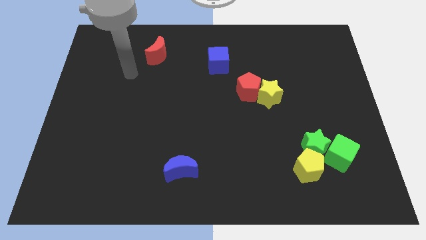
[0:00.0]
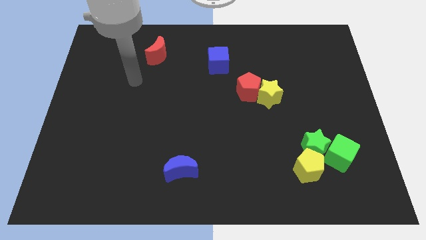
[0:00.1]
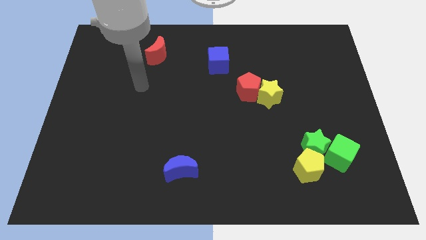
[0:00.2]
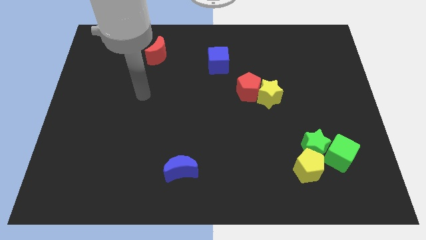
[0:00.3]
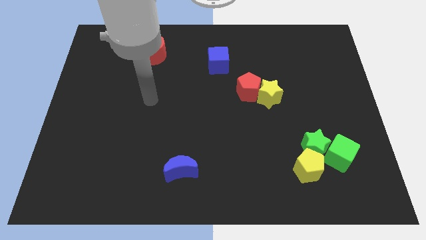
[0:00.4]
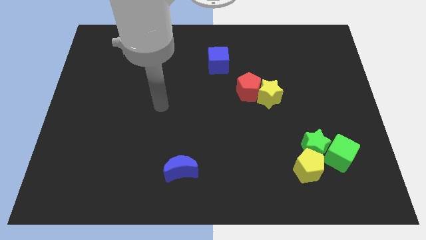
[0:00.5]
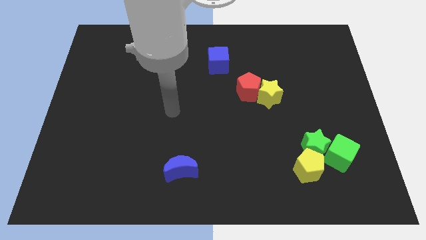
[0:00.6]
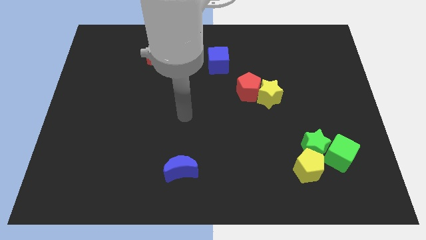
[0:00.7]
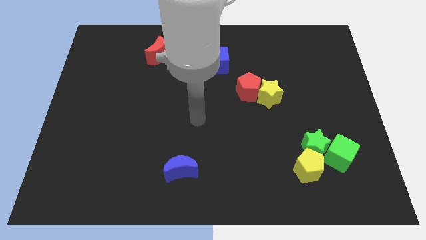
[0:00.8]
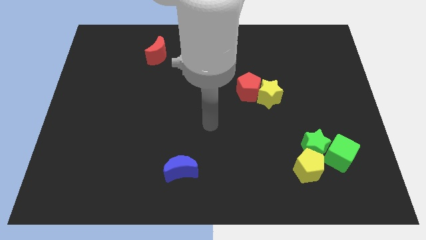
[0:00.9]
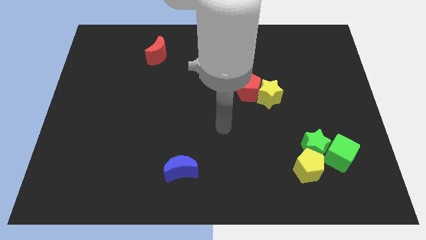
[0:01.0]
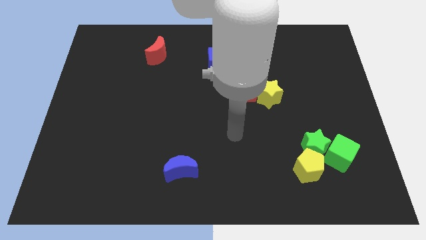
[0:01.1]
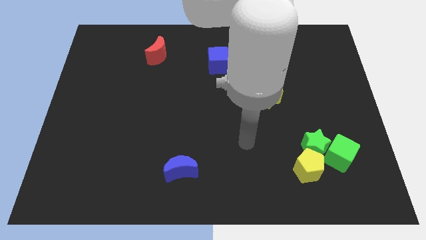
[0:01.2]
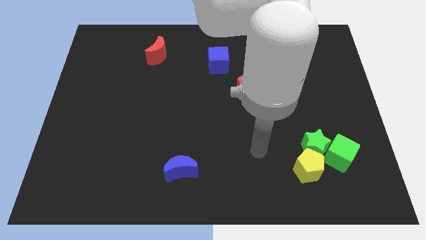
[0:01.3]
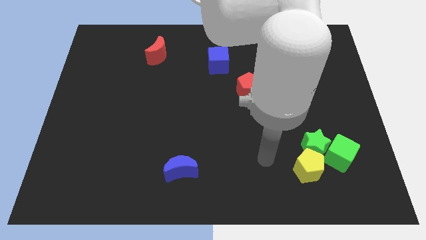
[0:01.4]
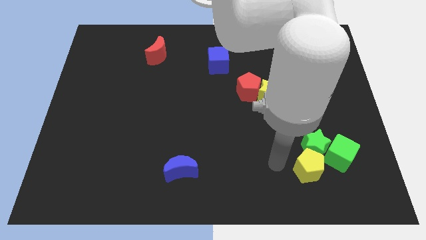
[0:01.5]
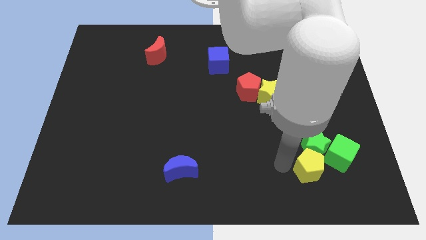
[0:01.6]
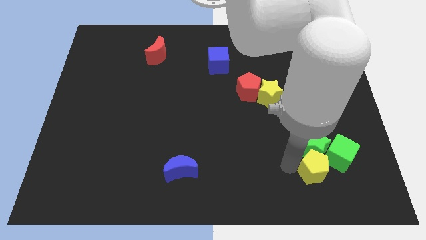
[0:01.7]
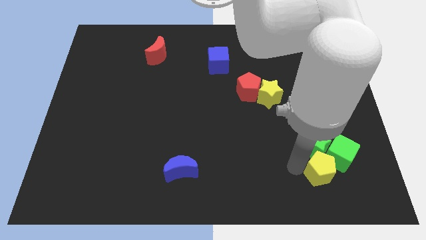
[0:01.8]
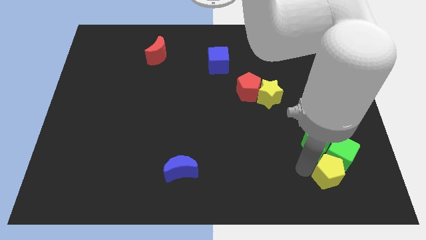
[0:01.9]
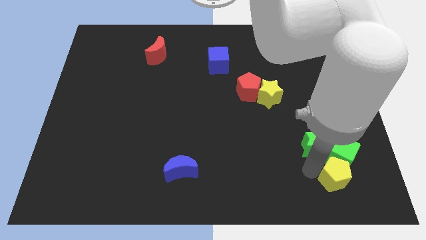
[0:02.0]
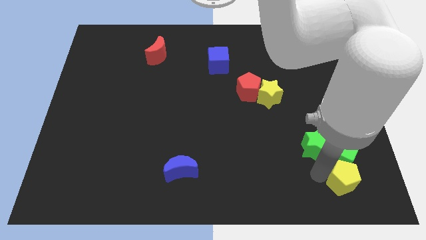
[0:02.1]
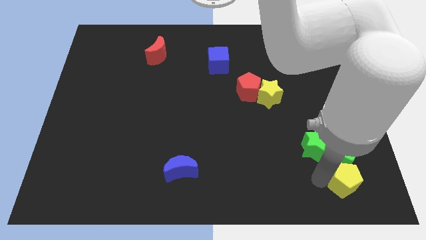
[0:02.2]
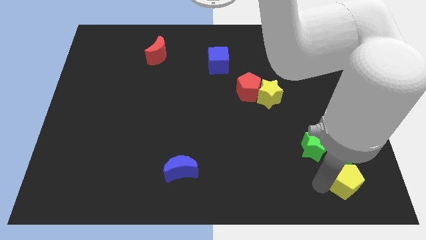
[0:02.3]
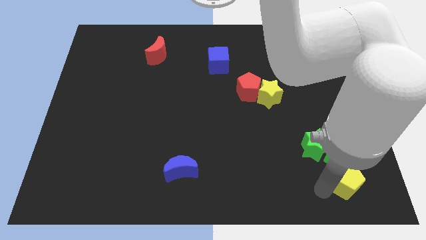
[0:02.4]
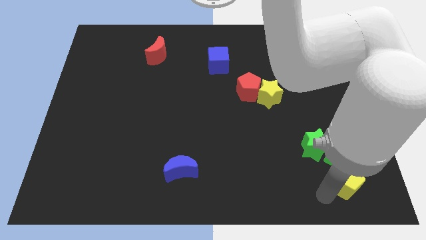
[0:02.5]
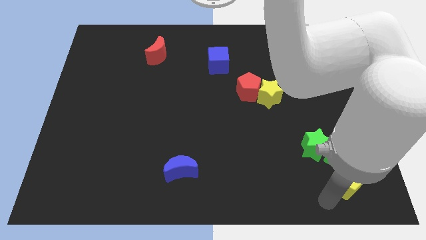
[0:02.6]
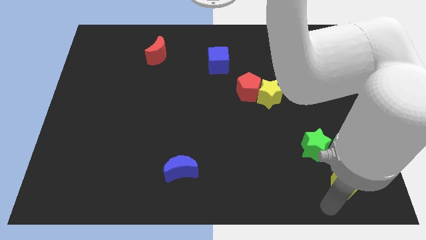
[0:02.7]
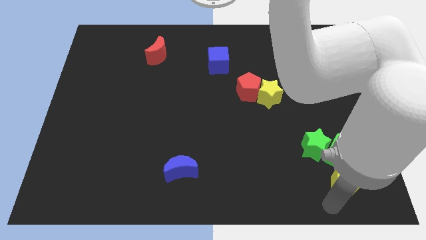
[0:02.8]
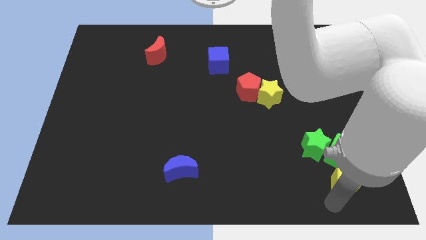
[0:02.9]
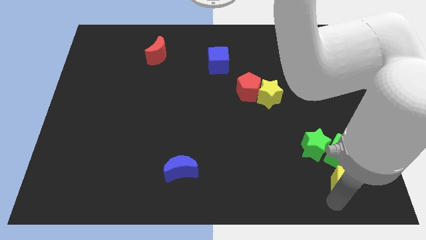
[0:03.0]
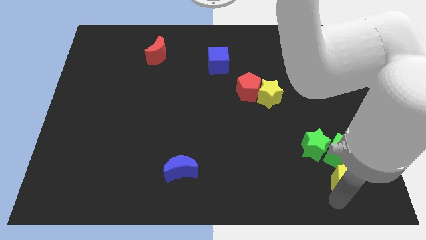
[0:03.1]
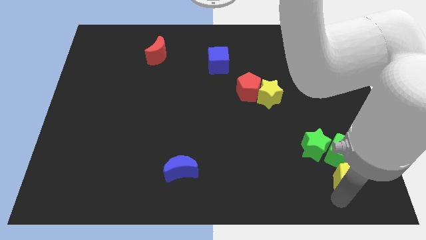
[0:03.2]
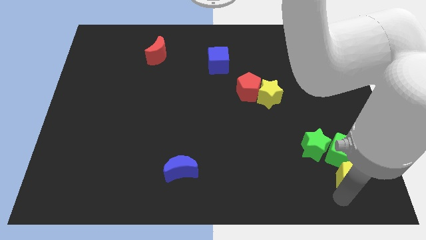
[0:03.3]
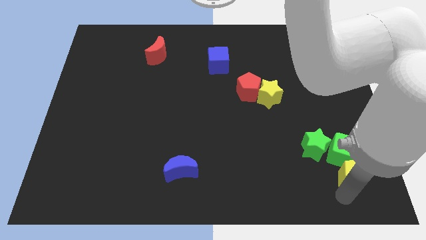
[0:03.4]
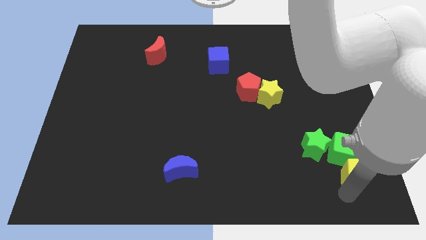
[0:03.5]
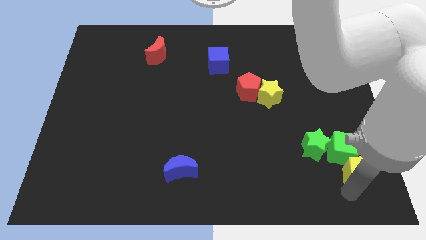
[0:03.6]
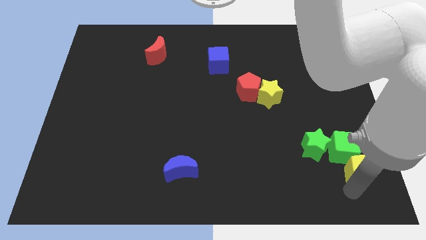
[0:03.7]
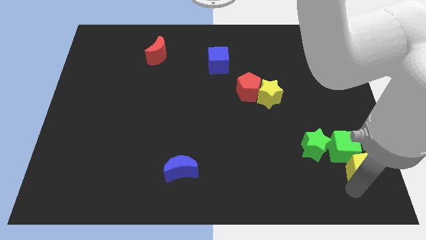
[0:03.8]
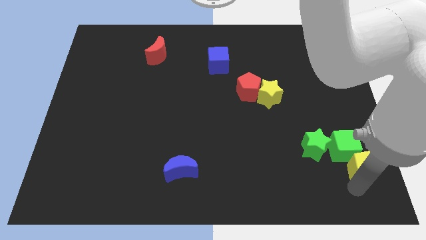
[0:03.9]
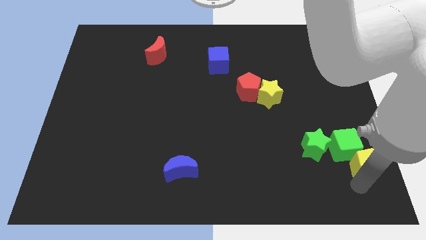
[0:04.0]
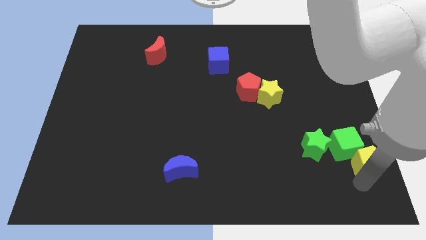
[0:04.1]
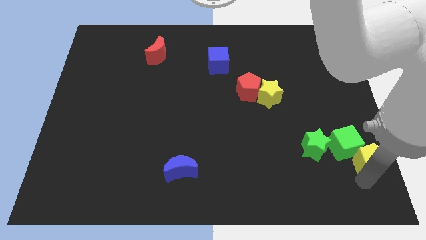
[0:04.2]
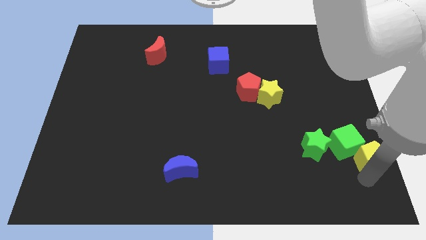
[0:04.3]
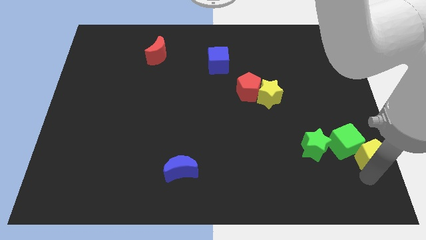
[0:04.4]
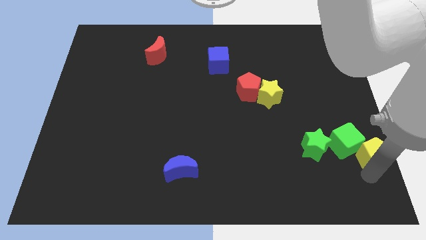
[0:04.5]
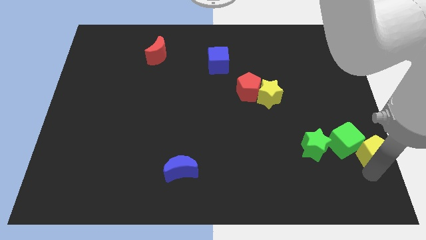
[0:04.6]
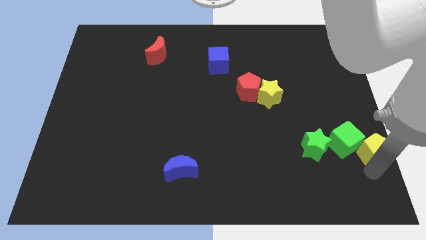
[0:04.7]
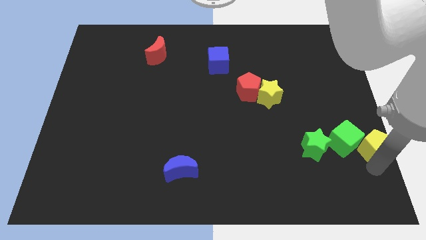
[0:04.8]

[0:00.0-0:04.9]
slide the yellow pentagon to the center right

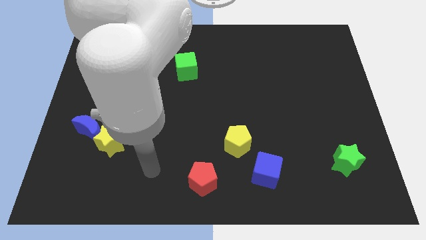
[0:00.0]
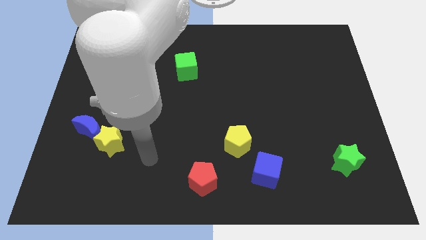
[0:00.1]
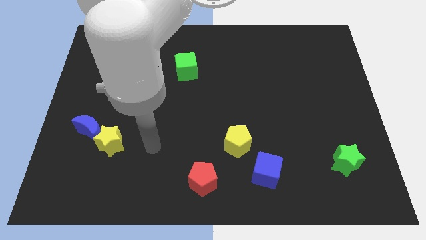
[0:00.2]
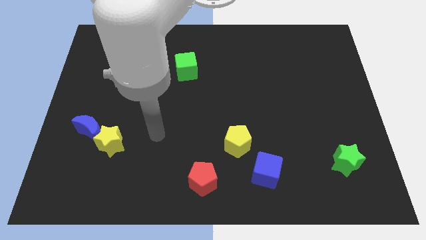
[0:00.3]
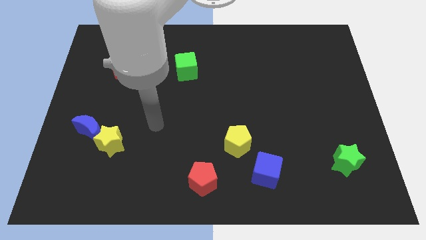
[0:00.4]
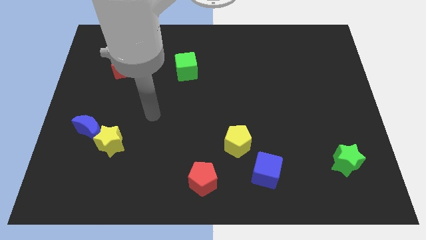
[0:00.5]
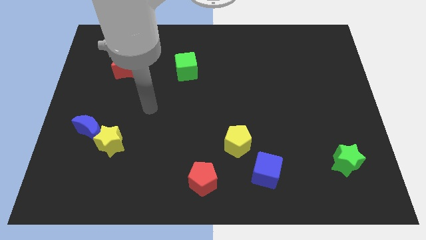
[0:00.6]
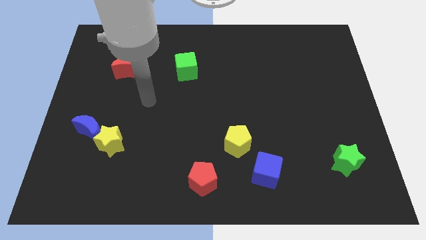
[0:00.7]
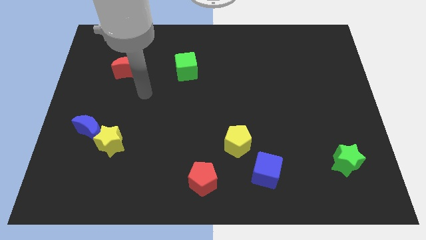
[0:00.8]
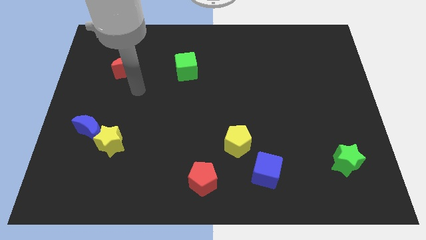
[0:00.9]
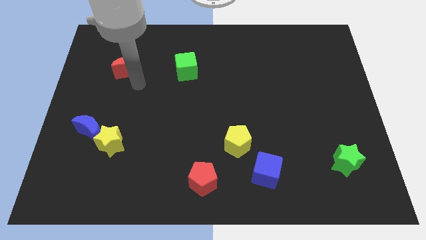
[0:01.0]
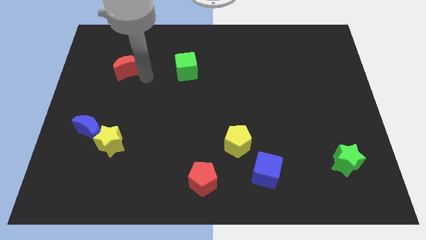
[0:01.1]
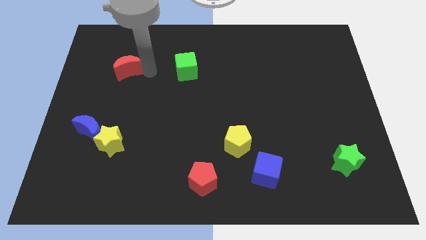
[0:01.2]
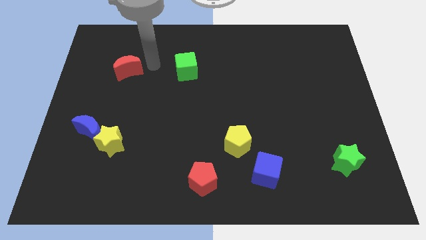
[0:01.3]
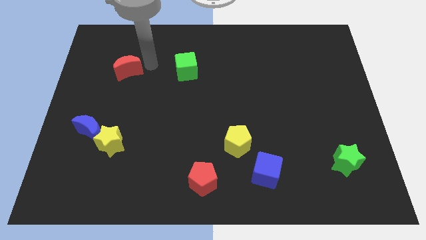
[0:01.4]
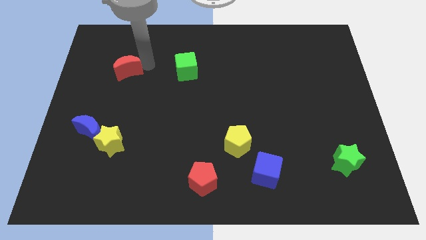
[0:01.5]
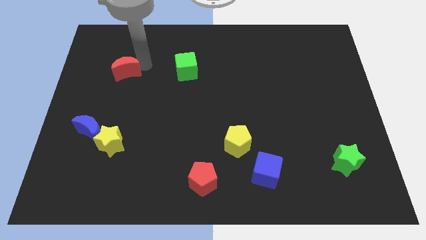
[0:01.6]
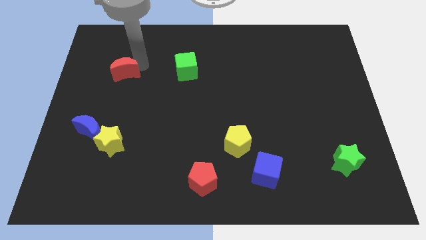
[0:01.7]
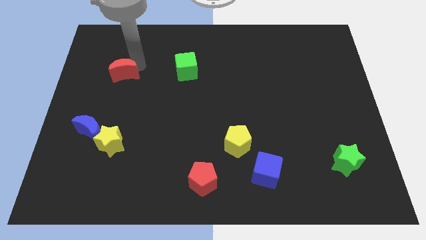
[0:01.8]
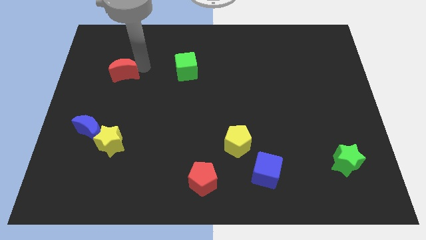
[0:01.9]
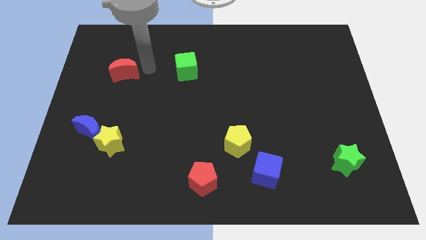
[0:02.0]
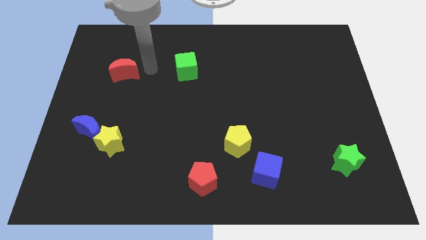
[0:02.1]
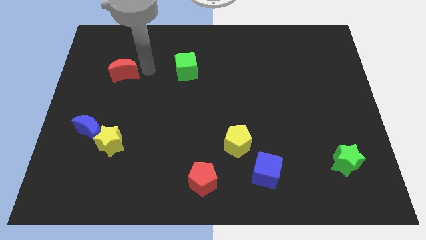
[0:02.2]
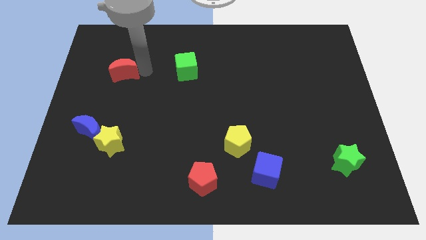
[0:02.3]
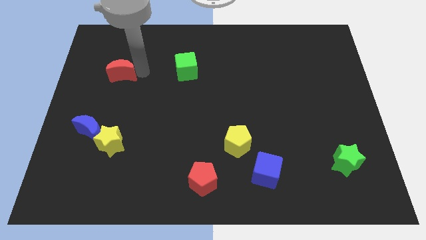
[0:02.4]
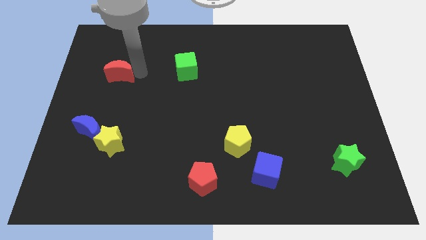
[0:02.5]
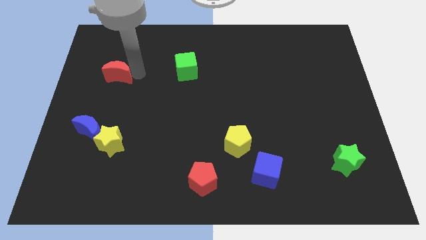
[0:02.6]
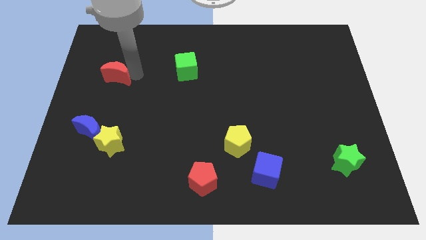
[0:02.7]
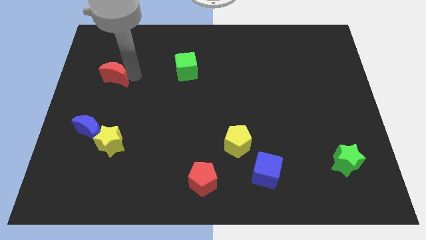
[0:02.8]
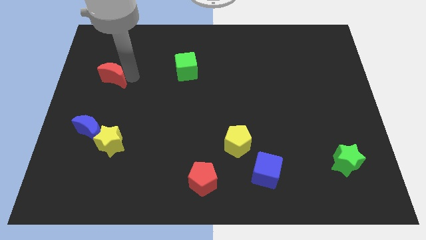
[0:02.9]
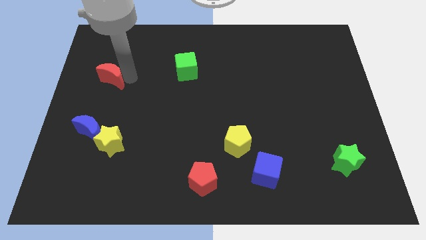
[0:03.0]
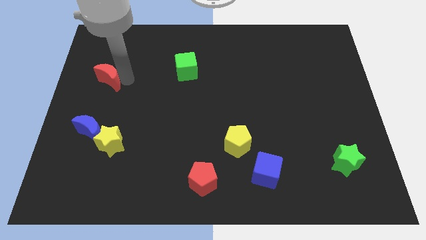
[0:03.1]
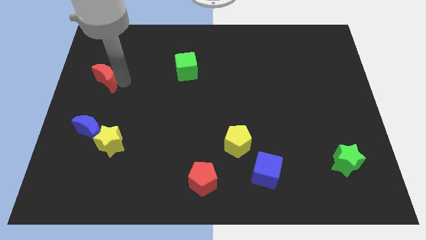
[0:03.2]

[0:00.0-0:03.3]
put the red moon to the left side
